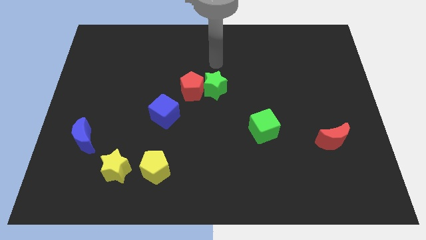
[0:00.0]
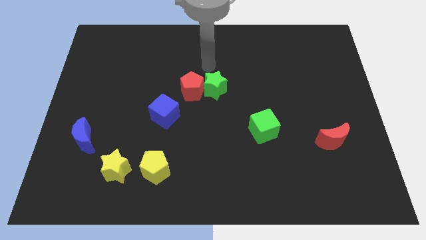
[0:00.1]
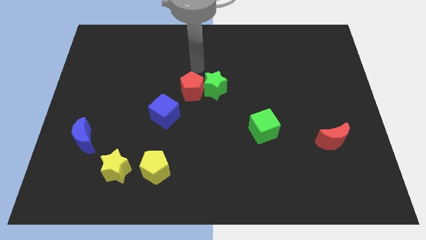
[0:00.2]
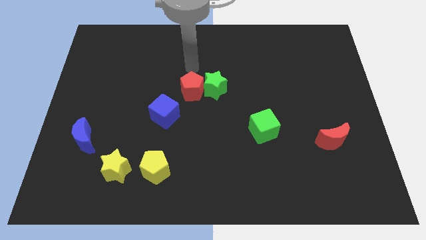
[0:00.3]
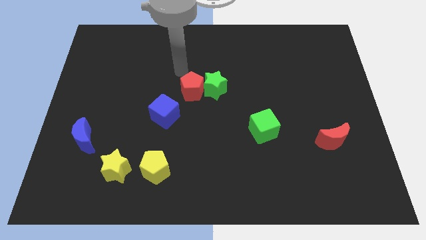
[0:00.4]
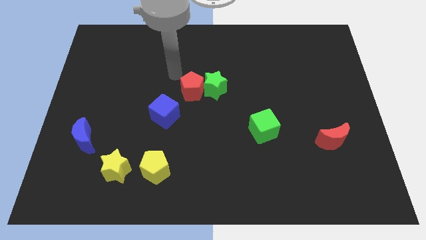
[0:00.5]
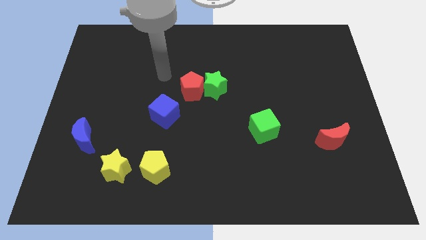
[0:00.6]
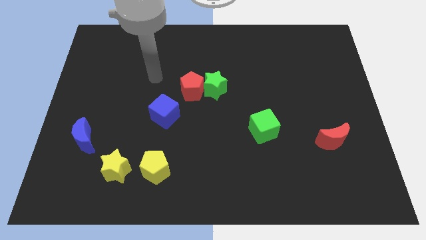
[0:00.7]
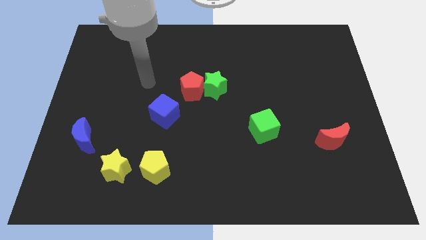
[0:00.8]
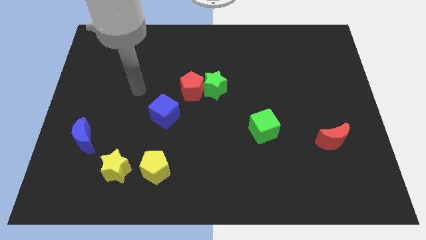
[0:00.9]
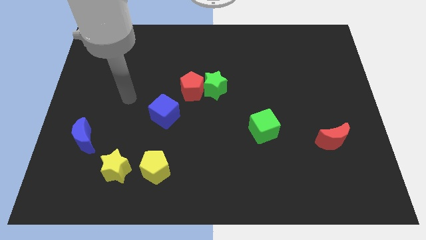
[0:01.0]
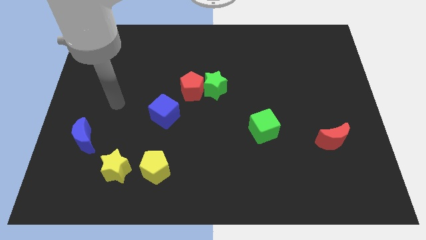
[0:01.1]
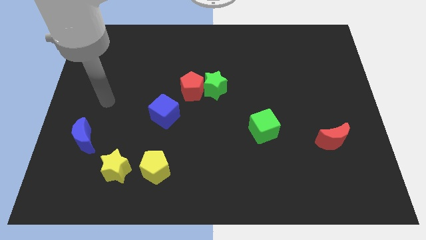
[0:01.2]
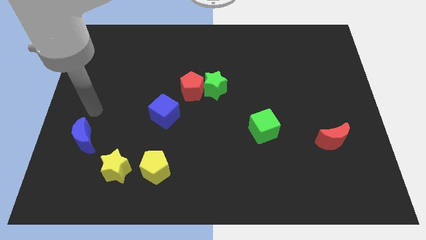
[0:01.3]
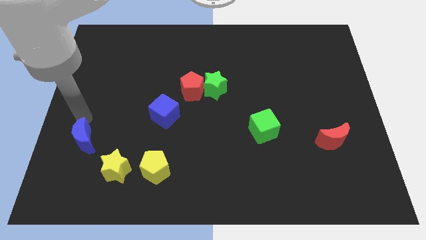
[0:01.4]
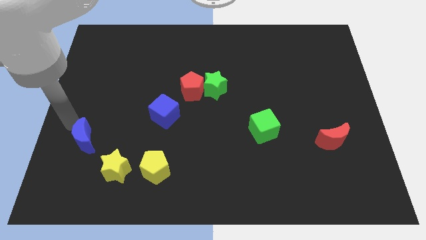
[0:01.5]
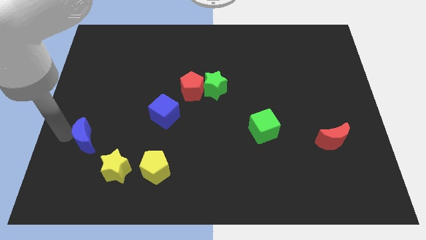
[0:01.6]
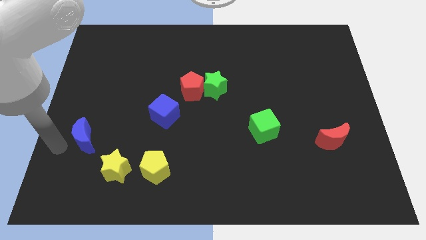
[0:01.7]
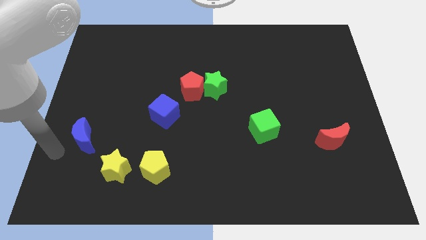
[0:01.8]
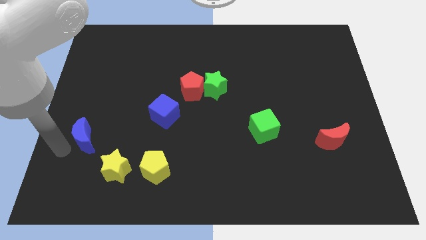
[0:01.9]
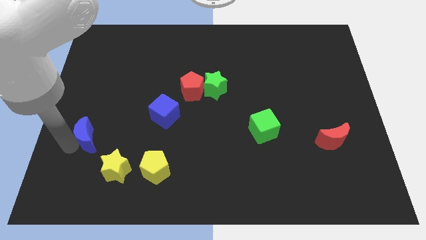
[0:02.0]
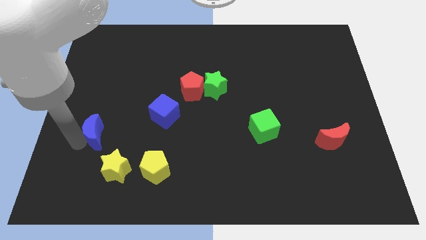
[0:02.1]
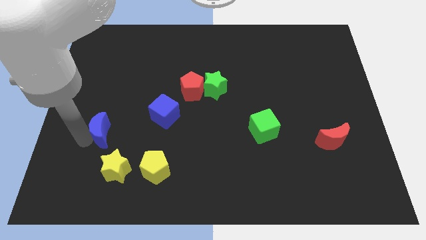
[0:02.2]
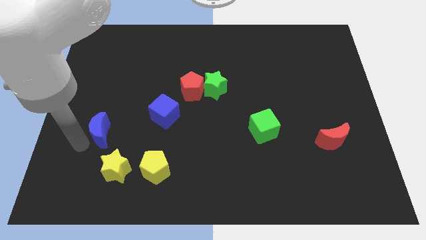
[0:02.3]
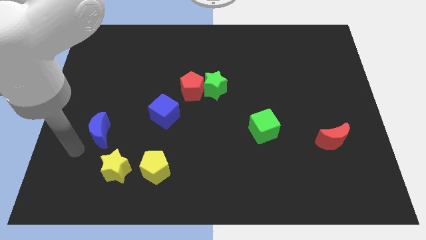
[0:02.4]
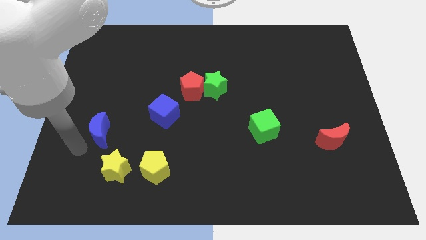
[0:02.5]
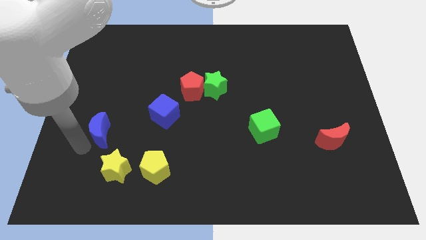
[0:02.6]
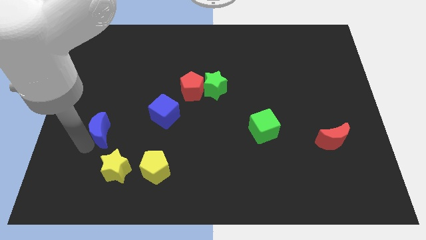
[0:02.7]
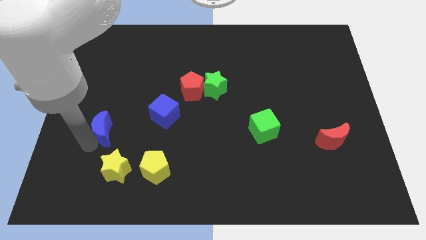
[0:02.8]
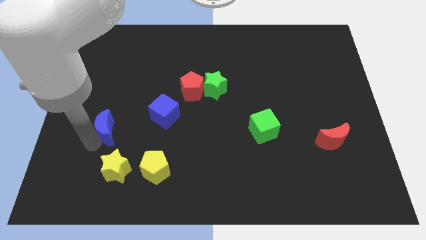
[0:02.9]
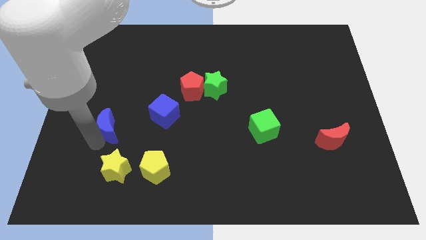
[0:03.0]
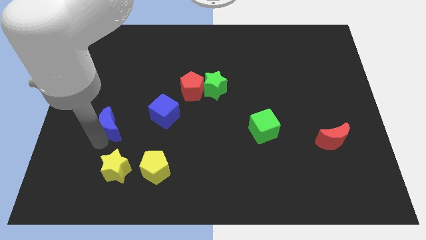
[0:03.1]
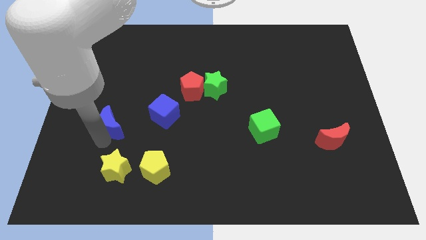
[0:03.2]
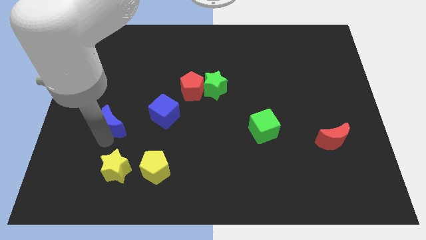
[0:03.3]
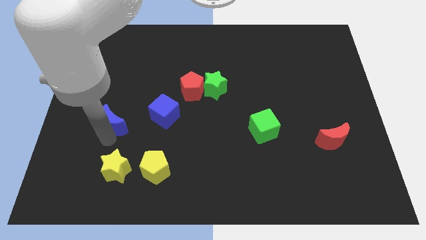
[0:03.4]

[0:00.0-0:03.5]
slightly slide the blue moon upwards and to the right diagonally

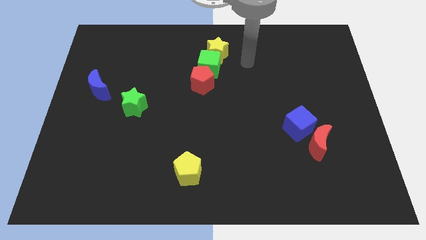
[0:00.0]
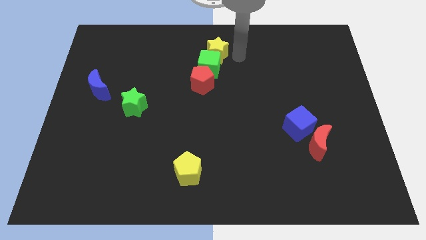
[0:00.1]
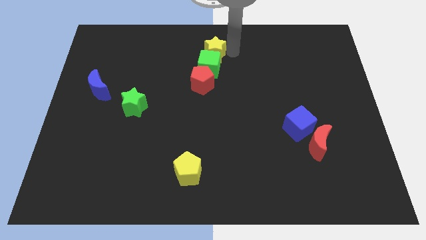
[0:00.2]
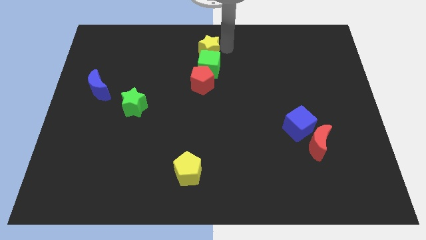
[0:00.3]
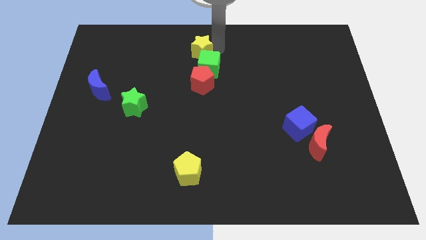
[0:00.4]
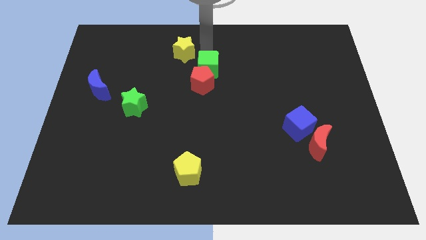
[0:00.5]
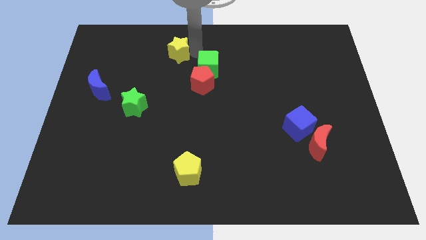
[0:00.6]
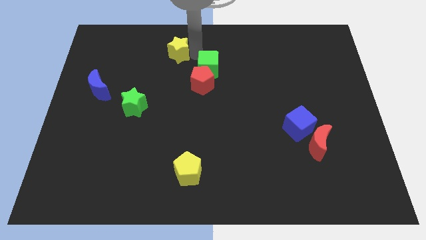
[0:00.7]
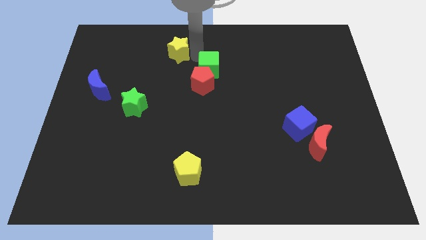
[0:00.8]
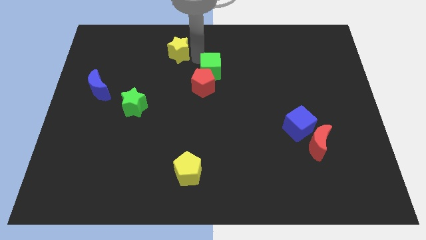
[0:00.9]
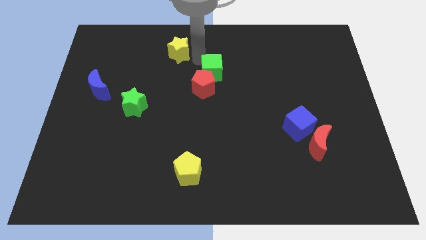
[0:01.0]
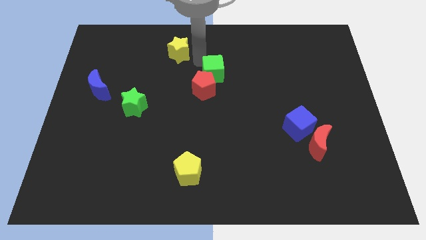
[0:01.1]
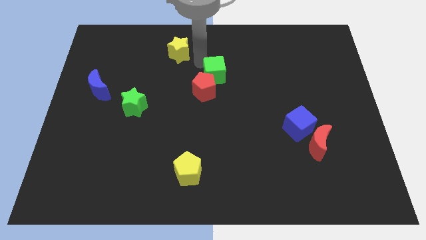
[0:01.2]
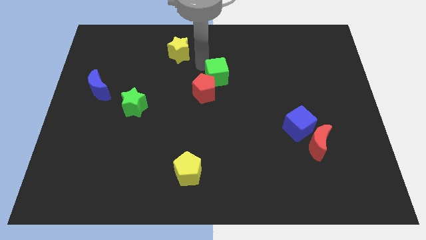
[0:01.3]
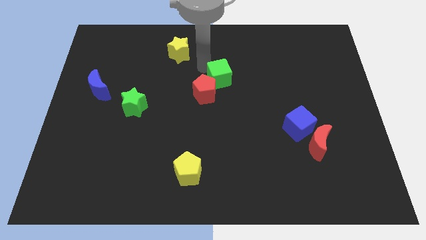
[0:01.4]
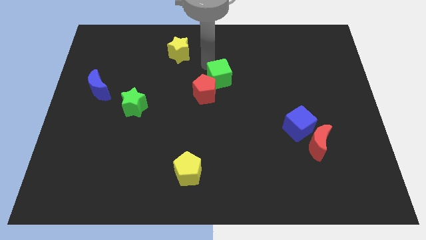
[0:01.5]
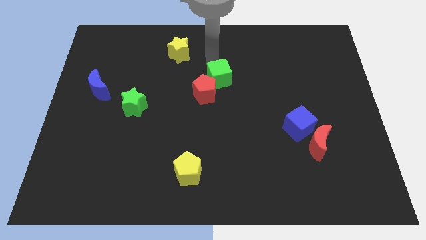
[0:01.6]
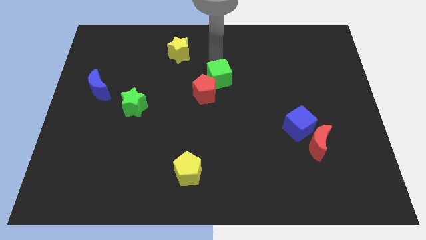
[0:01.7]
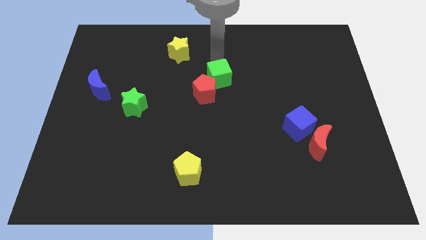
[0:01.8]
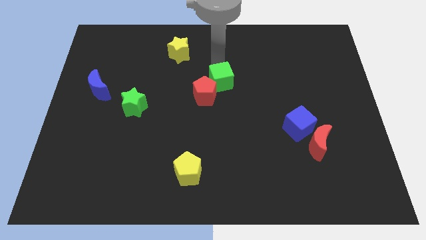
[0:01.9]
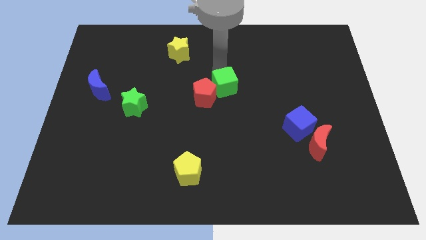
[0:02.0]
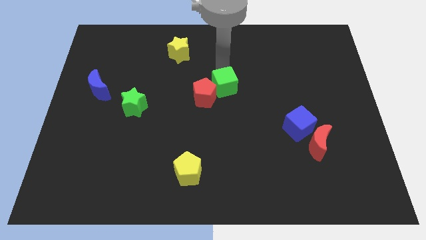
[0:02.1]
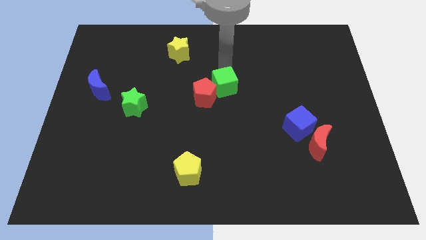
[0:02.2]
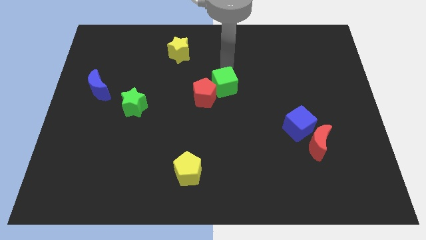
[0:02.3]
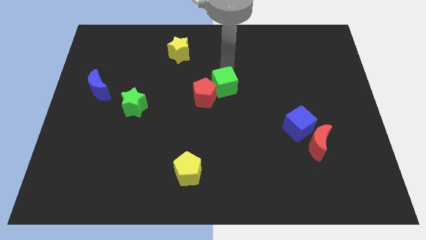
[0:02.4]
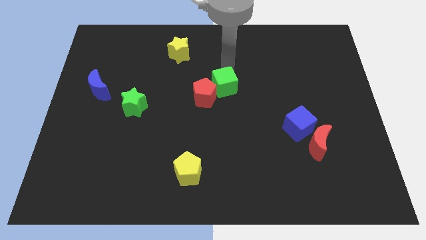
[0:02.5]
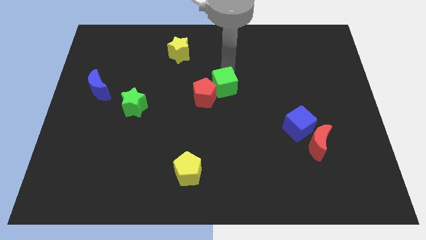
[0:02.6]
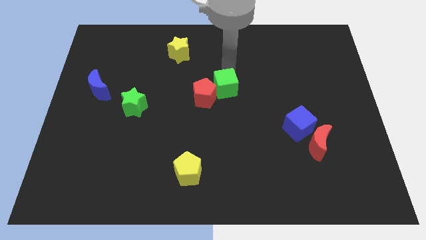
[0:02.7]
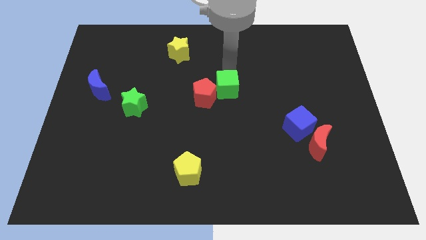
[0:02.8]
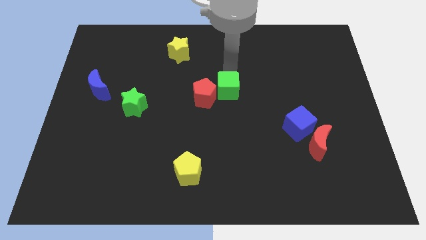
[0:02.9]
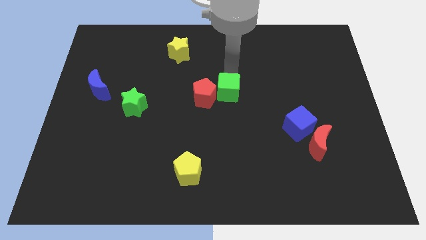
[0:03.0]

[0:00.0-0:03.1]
move the green cube down a little

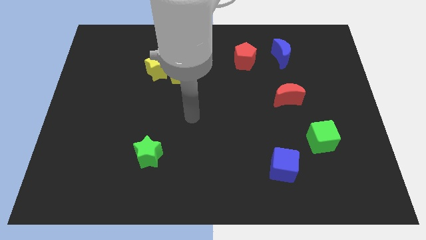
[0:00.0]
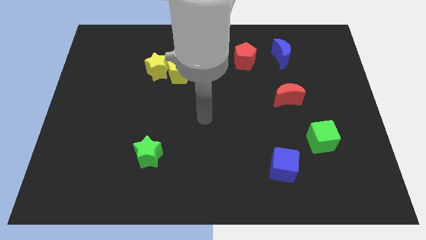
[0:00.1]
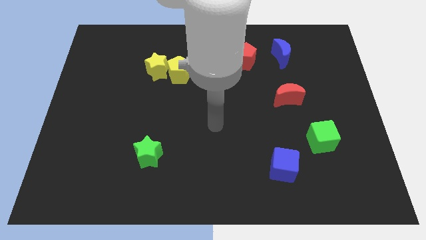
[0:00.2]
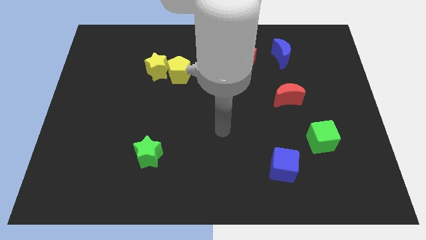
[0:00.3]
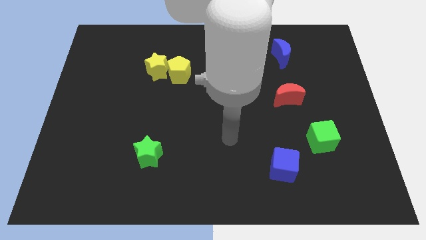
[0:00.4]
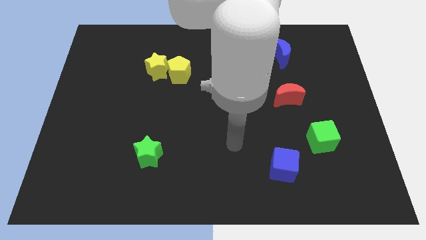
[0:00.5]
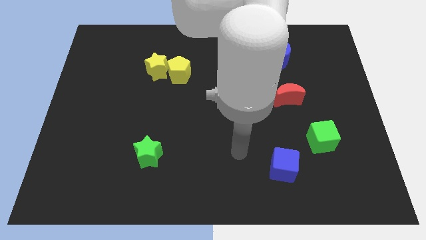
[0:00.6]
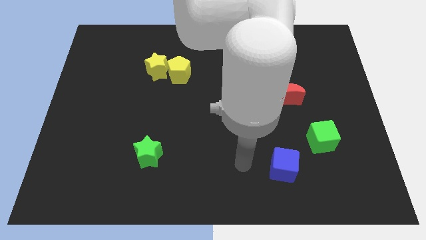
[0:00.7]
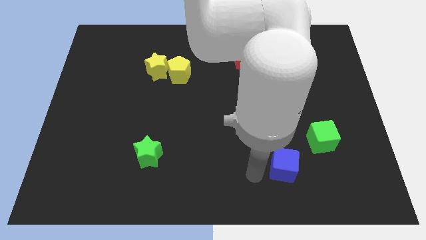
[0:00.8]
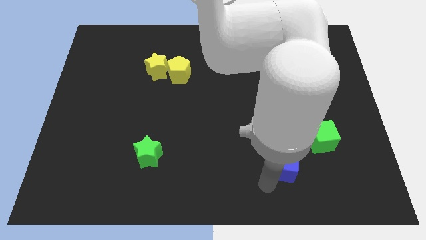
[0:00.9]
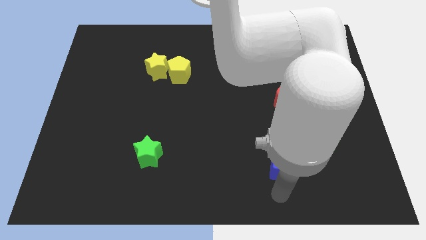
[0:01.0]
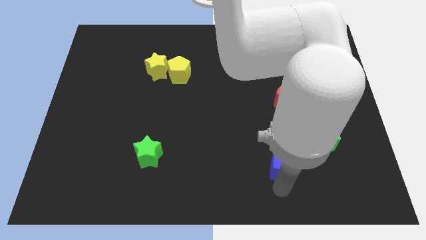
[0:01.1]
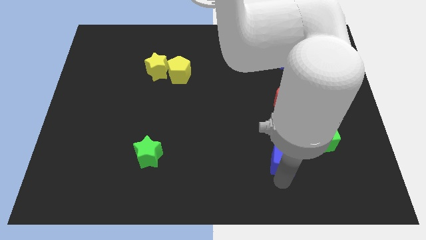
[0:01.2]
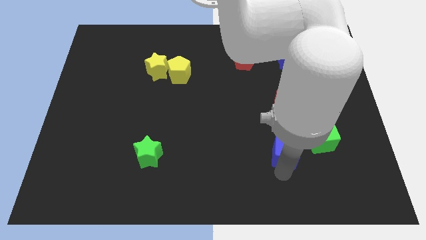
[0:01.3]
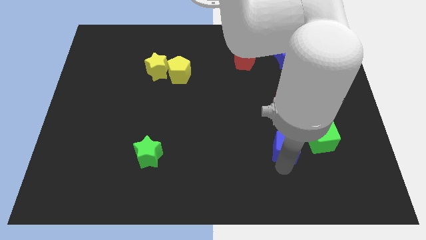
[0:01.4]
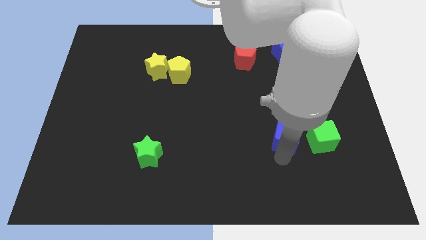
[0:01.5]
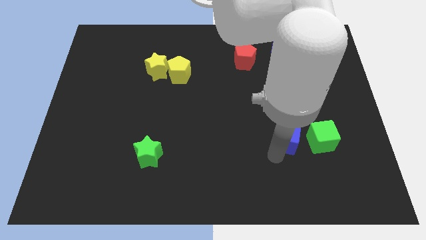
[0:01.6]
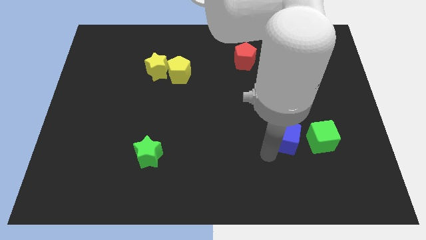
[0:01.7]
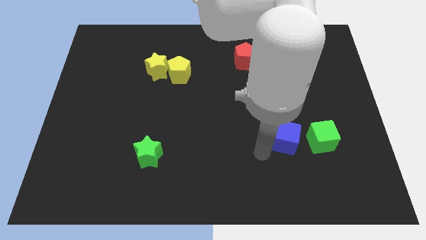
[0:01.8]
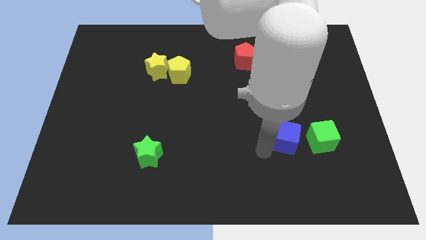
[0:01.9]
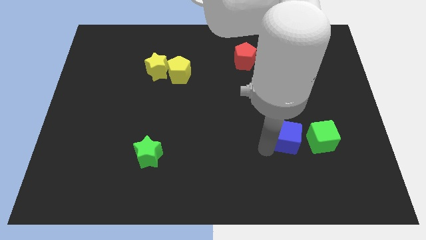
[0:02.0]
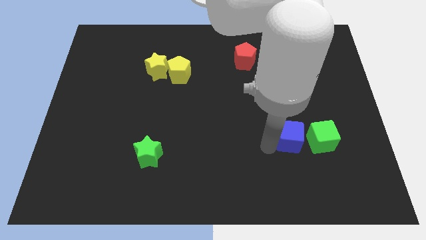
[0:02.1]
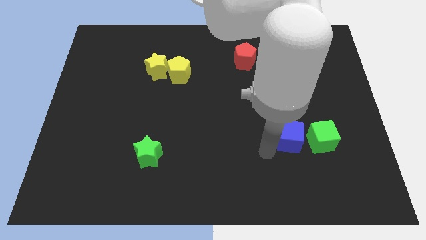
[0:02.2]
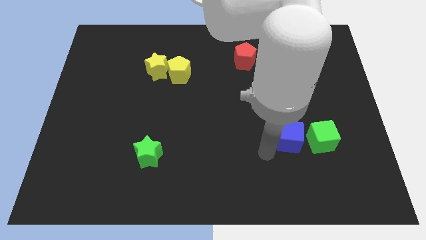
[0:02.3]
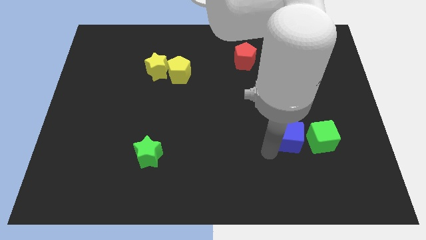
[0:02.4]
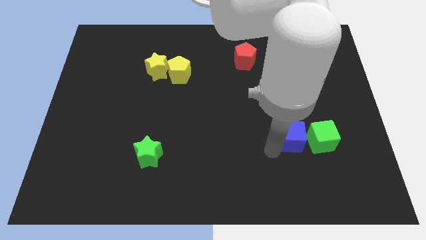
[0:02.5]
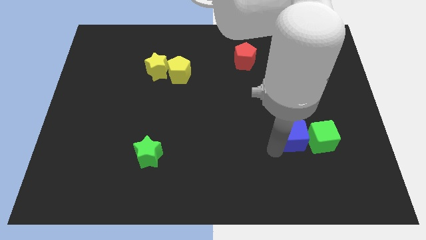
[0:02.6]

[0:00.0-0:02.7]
move the blue cube slightly up and to the right diagonally
